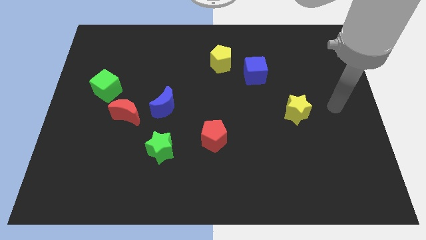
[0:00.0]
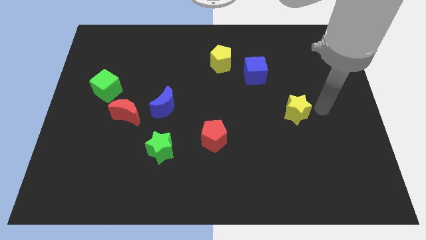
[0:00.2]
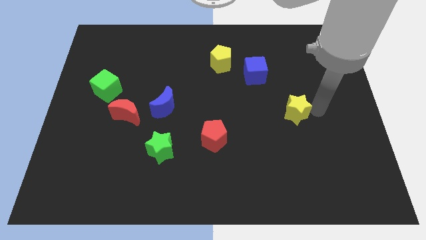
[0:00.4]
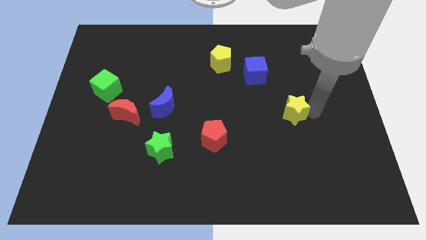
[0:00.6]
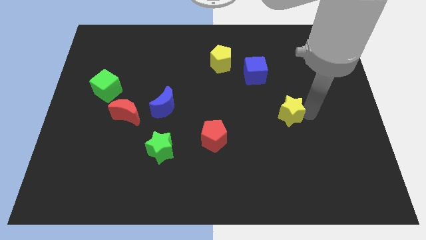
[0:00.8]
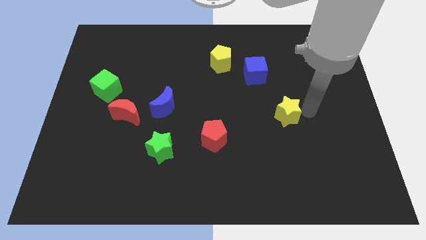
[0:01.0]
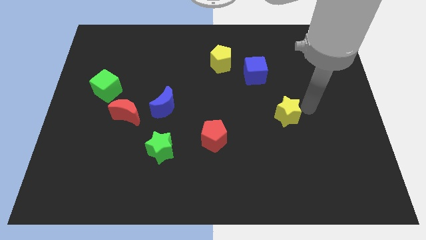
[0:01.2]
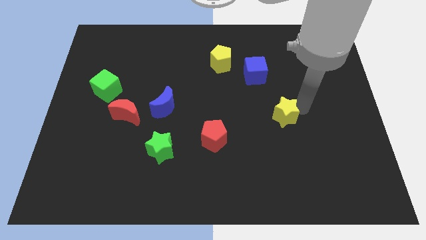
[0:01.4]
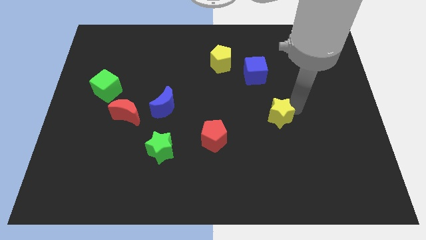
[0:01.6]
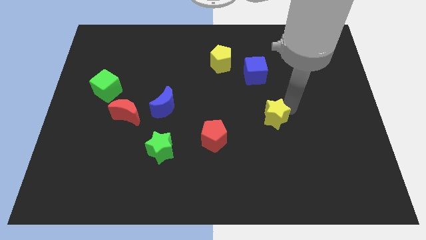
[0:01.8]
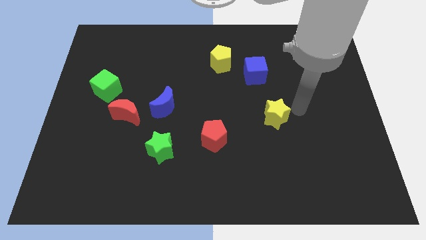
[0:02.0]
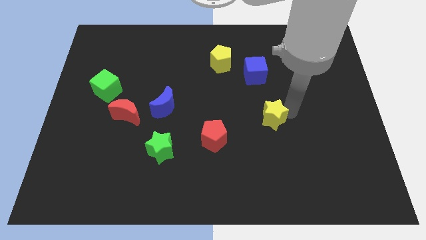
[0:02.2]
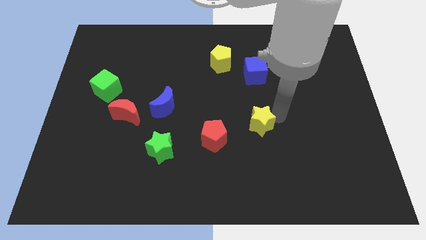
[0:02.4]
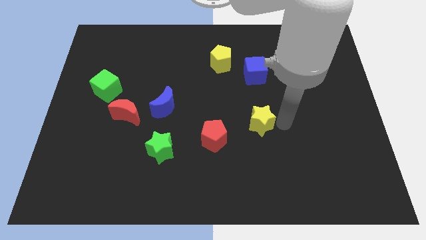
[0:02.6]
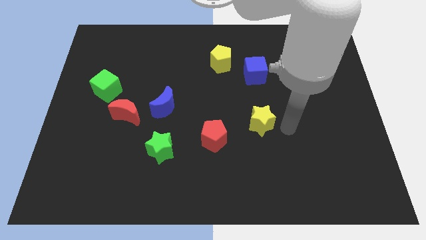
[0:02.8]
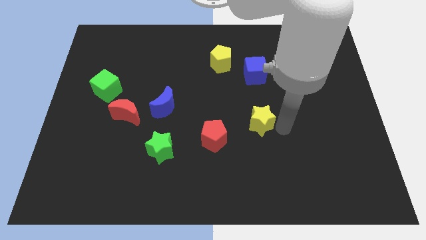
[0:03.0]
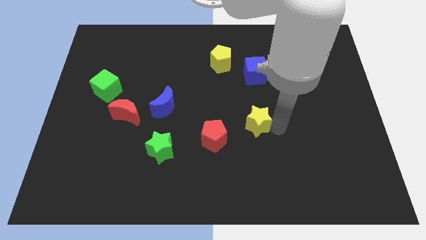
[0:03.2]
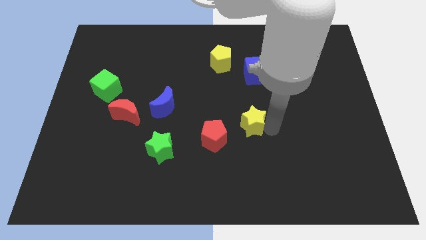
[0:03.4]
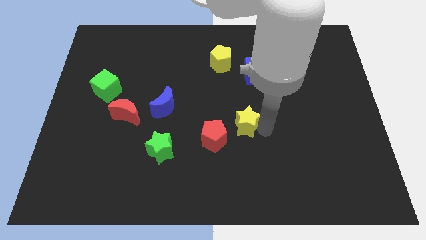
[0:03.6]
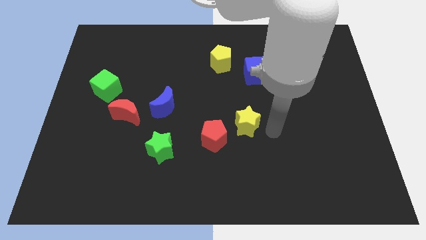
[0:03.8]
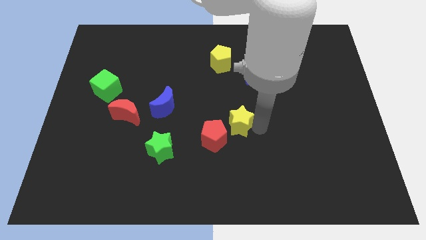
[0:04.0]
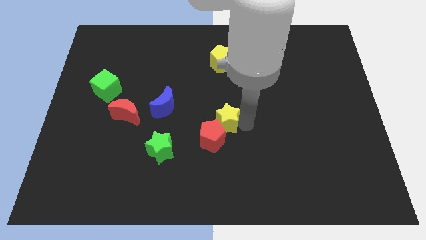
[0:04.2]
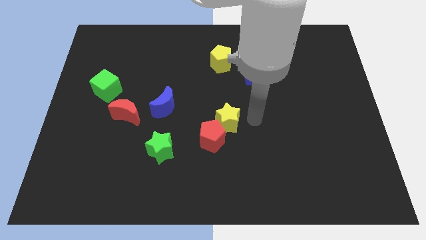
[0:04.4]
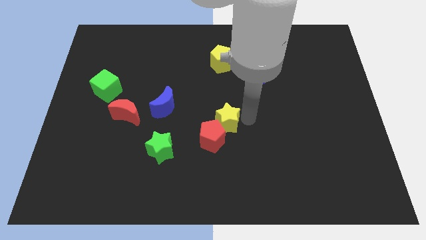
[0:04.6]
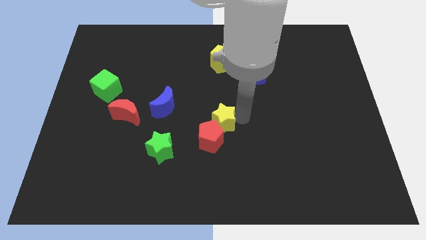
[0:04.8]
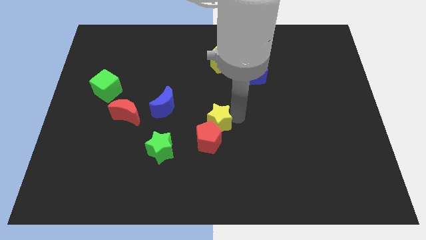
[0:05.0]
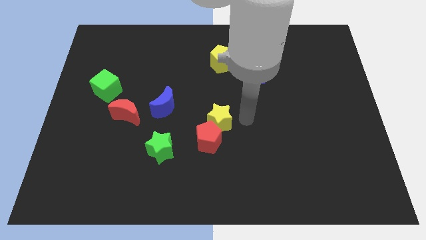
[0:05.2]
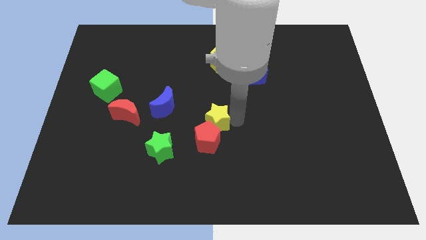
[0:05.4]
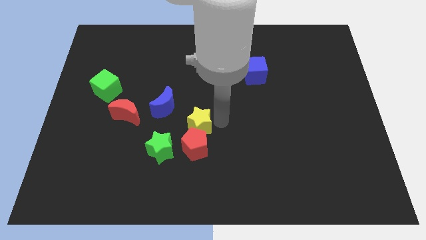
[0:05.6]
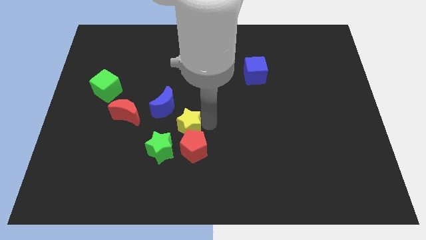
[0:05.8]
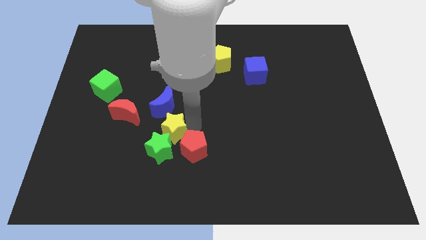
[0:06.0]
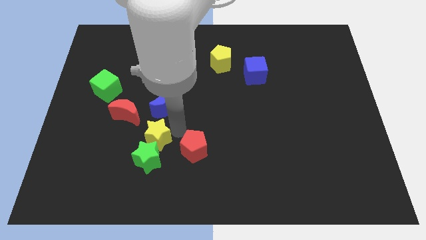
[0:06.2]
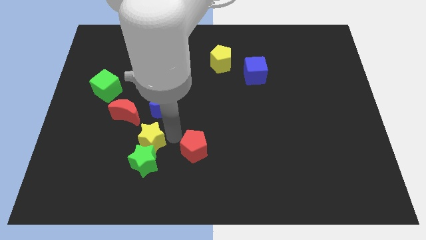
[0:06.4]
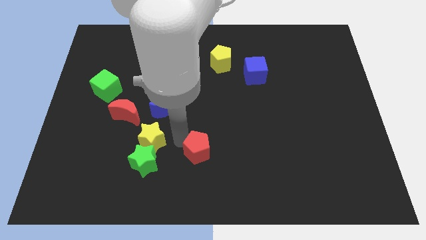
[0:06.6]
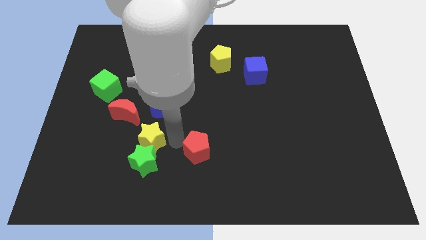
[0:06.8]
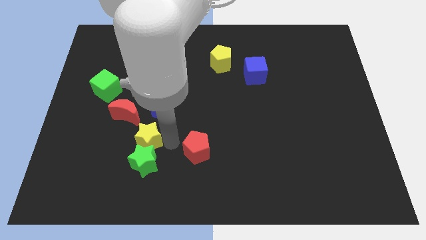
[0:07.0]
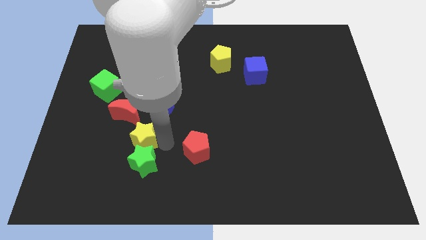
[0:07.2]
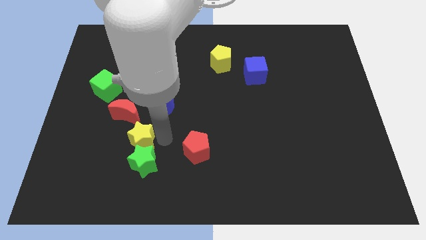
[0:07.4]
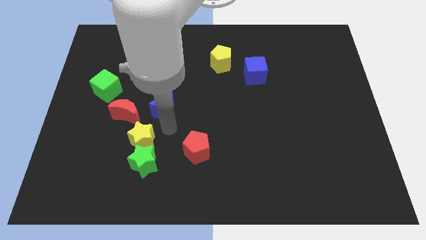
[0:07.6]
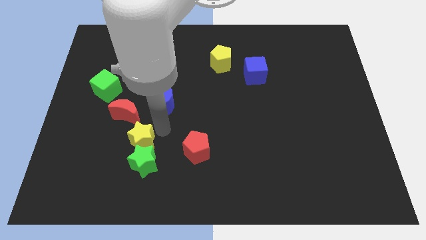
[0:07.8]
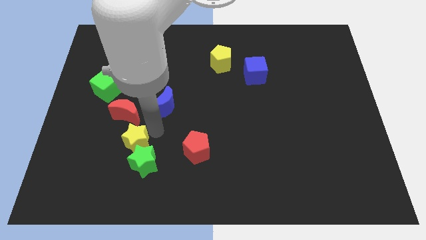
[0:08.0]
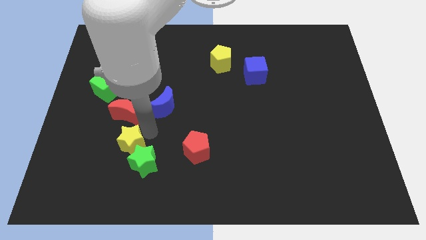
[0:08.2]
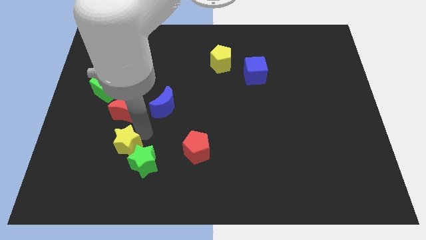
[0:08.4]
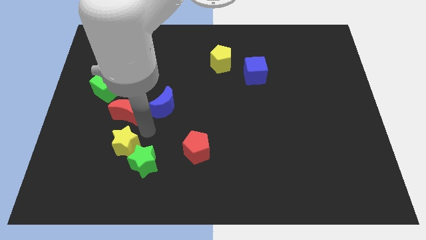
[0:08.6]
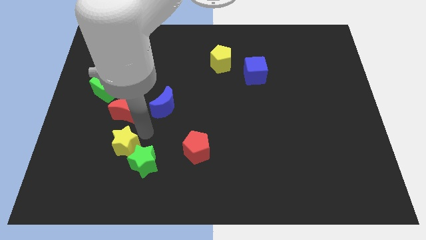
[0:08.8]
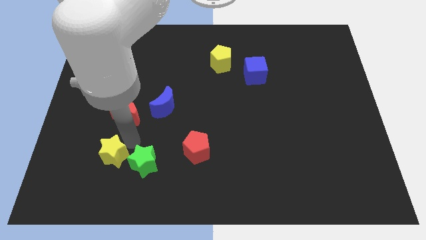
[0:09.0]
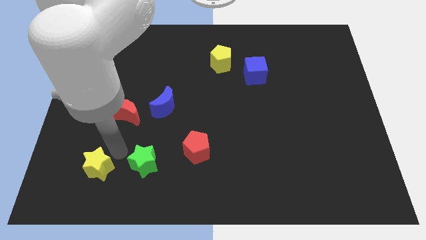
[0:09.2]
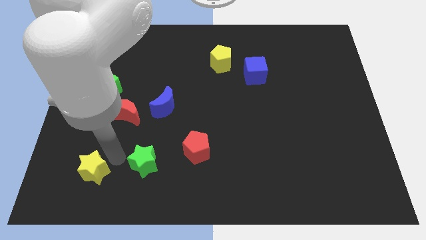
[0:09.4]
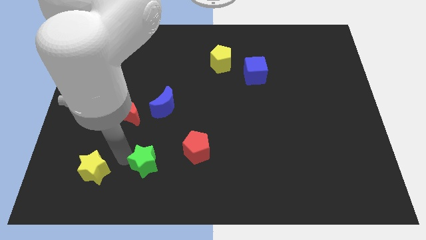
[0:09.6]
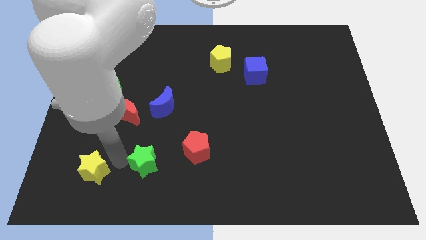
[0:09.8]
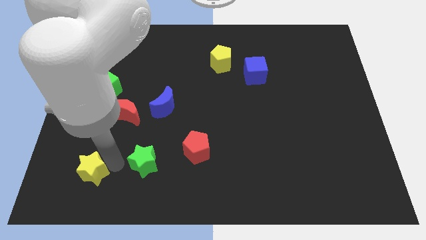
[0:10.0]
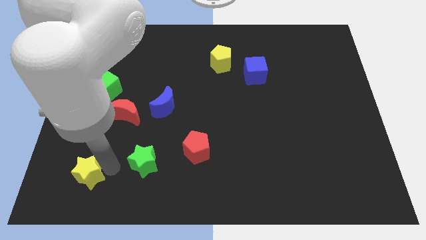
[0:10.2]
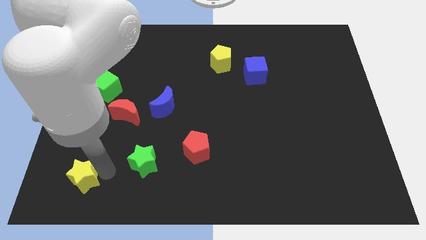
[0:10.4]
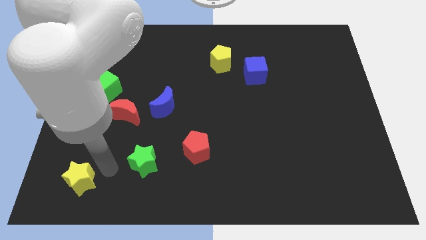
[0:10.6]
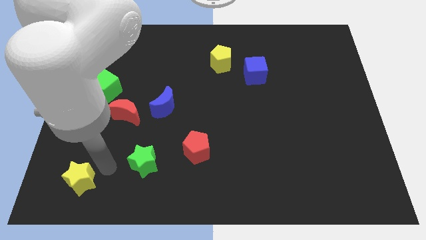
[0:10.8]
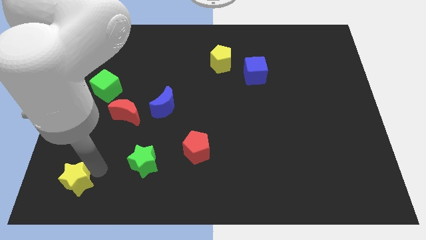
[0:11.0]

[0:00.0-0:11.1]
push the yellow star to the lower left corner

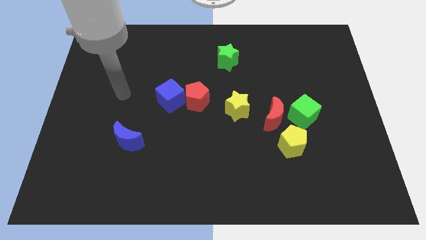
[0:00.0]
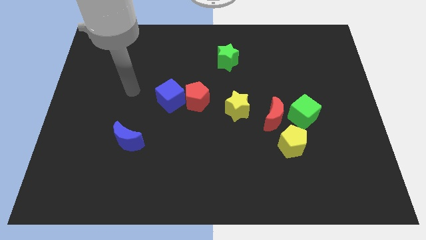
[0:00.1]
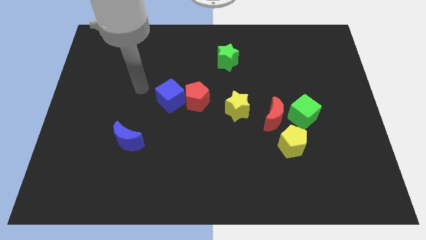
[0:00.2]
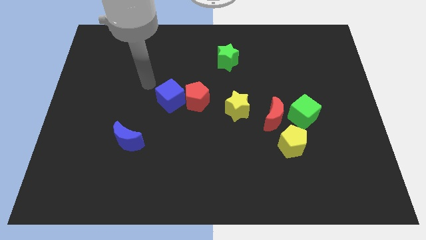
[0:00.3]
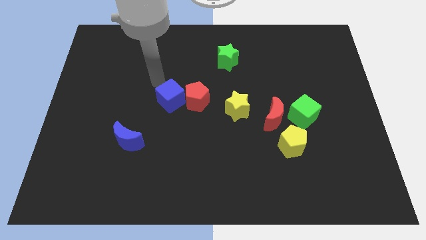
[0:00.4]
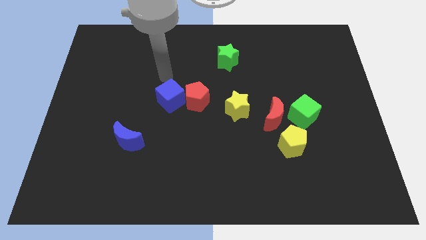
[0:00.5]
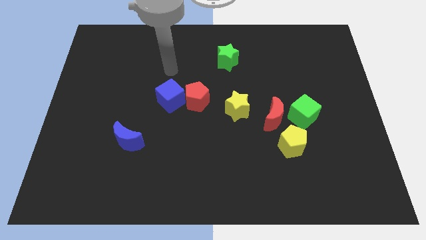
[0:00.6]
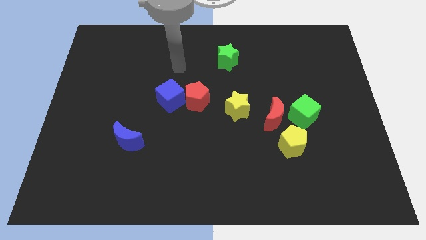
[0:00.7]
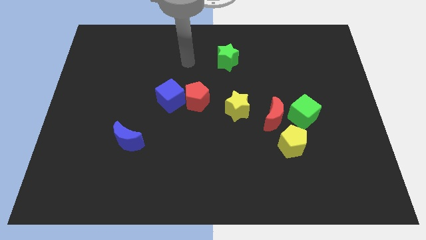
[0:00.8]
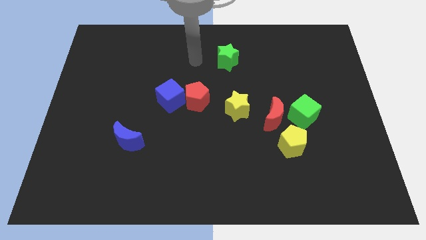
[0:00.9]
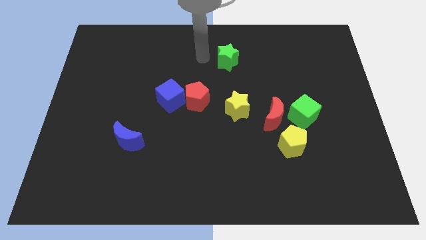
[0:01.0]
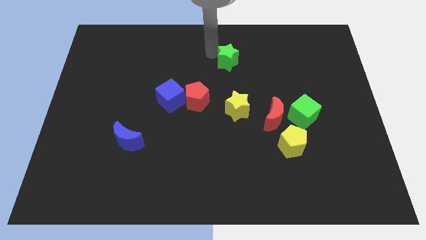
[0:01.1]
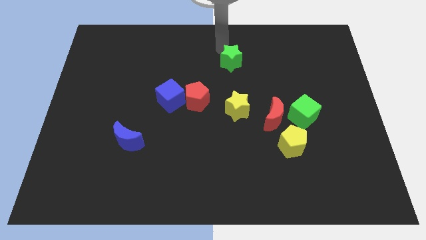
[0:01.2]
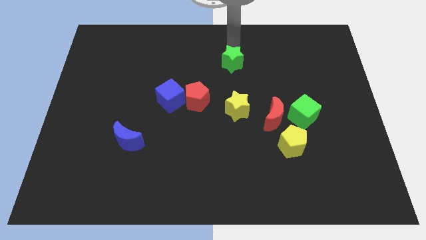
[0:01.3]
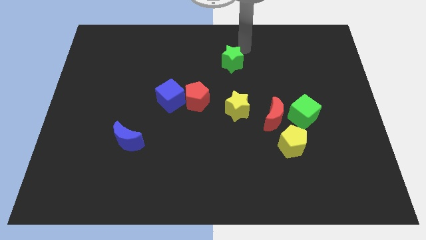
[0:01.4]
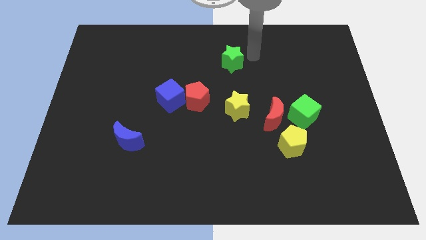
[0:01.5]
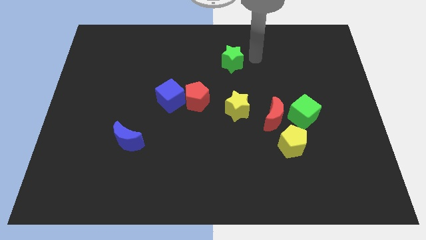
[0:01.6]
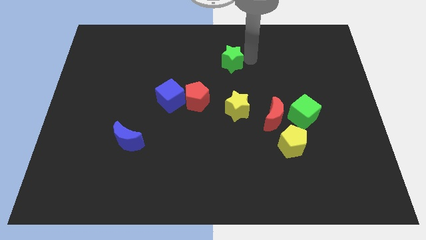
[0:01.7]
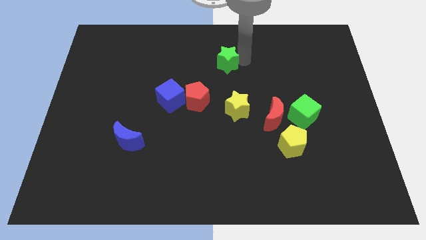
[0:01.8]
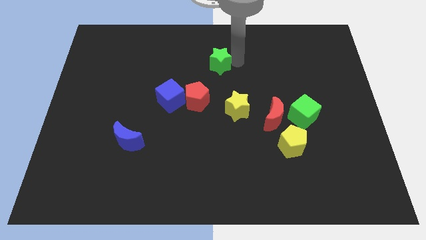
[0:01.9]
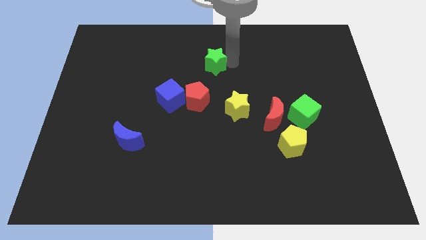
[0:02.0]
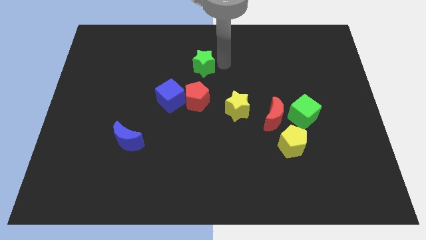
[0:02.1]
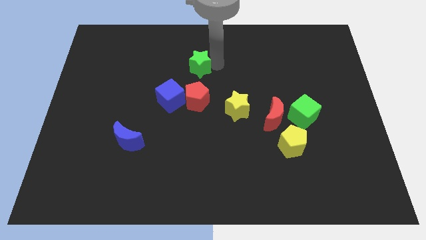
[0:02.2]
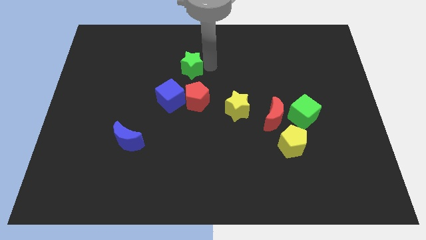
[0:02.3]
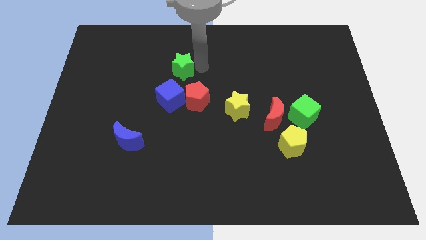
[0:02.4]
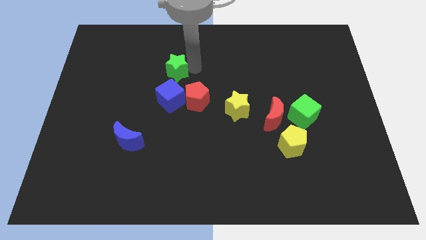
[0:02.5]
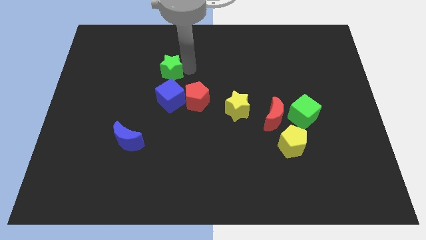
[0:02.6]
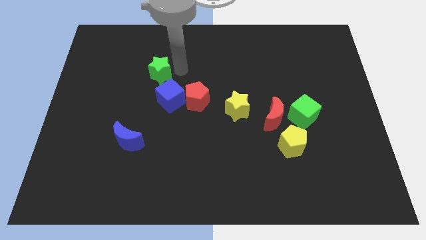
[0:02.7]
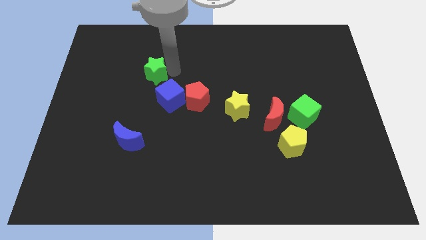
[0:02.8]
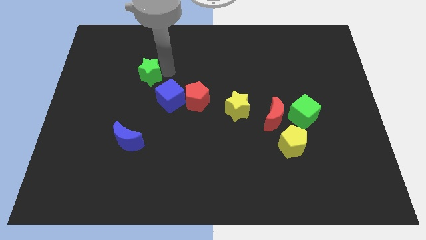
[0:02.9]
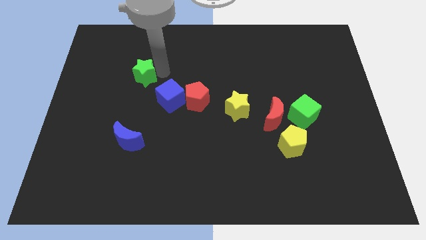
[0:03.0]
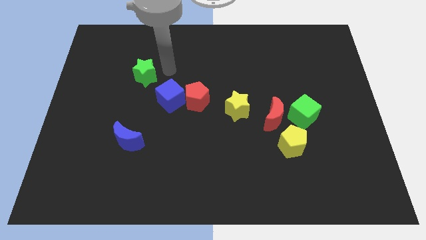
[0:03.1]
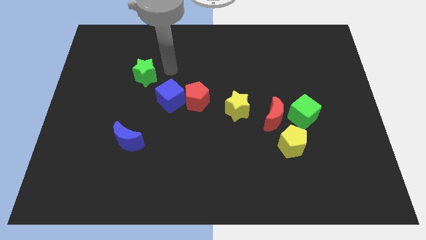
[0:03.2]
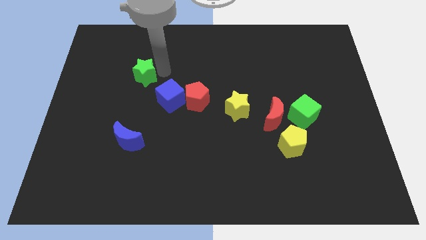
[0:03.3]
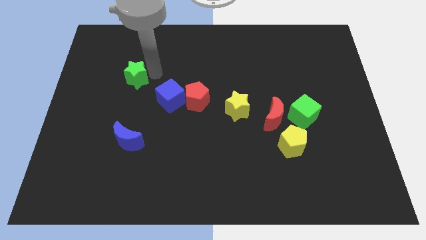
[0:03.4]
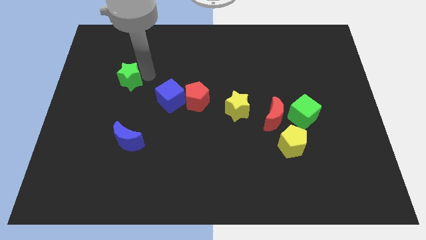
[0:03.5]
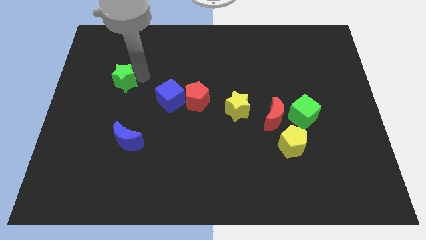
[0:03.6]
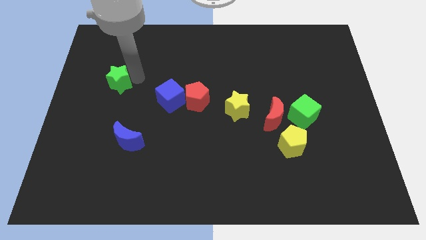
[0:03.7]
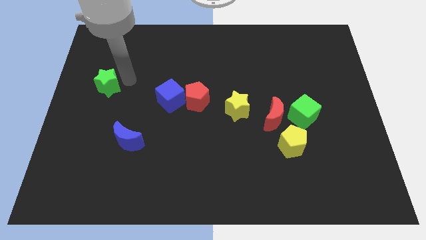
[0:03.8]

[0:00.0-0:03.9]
slide the green star to the left side of the board
